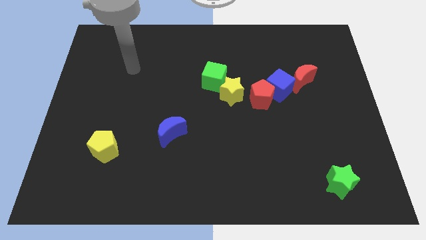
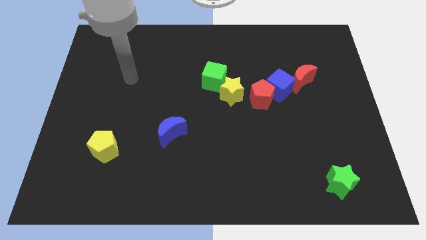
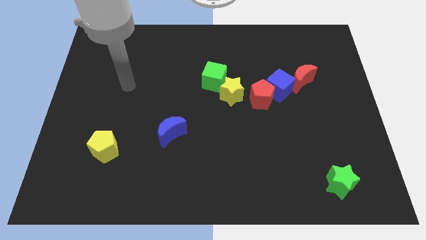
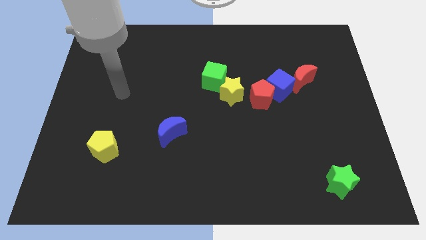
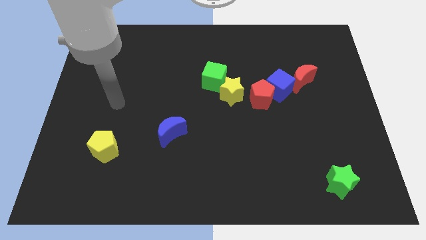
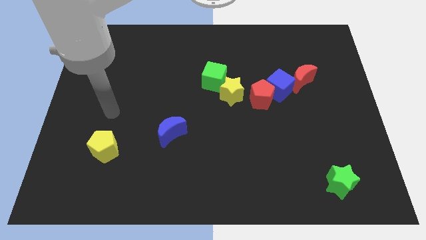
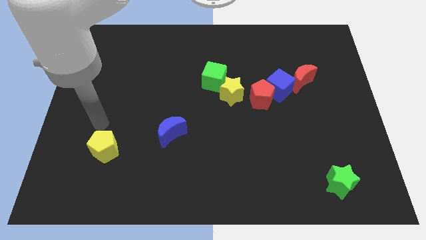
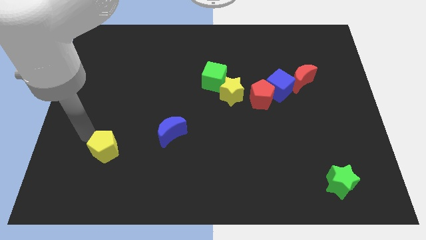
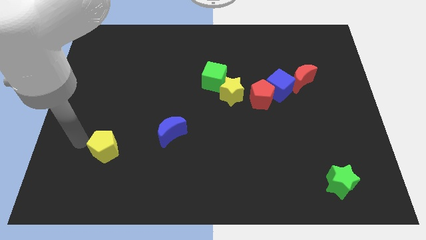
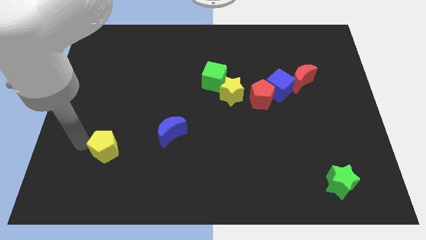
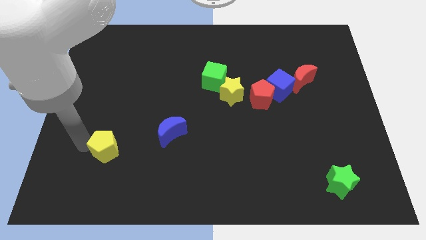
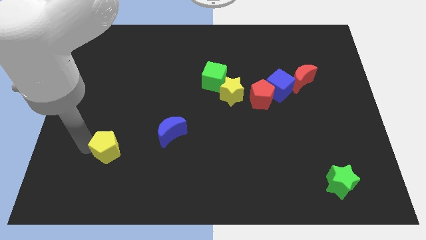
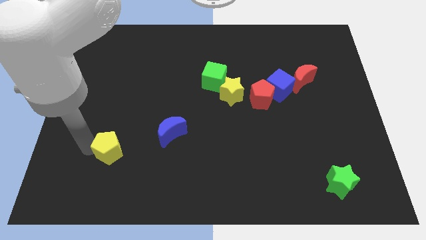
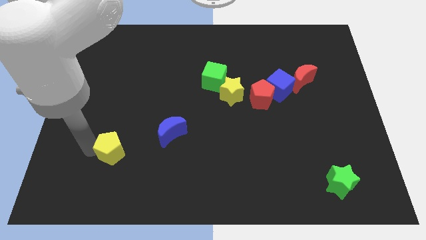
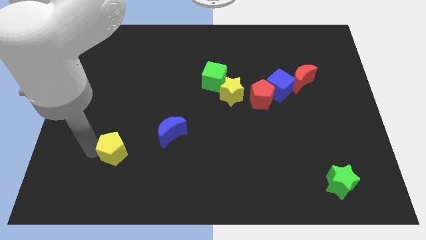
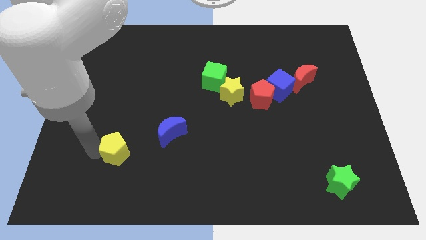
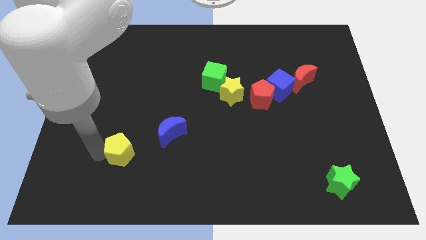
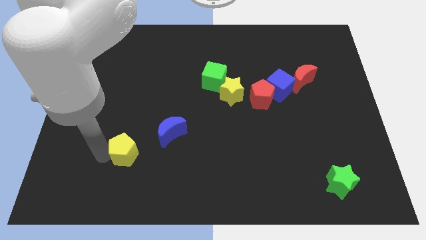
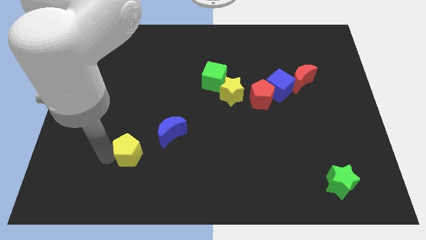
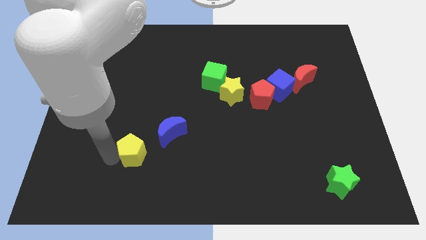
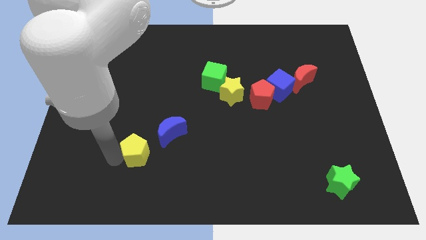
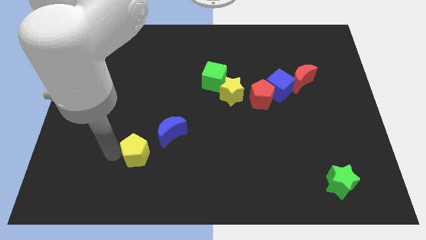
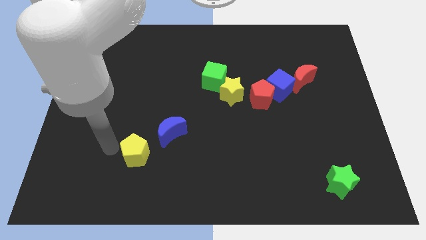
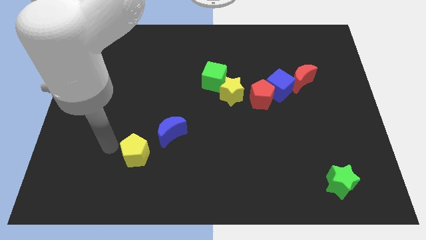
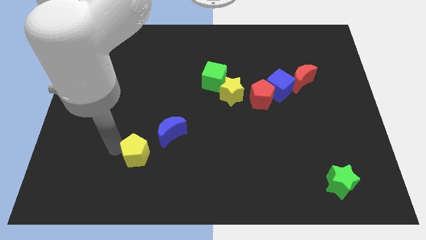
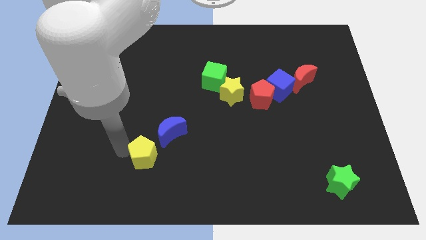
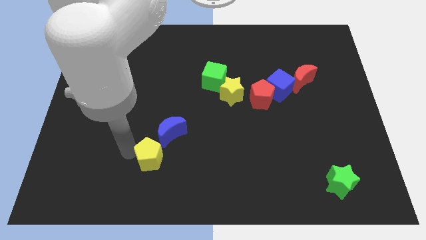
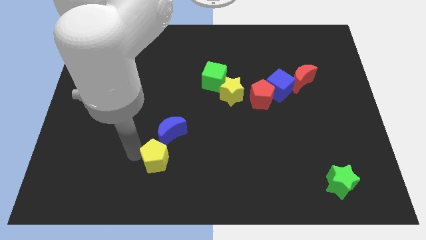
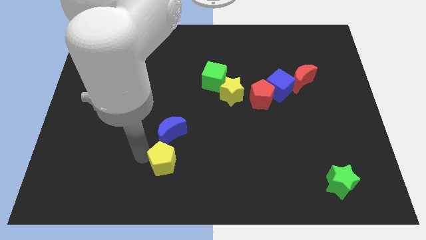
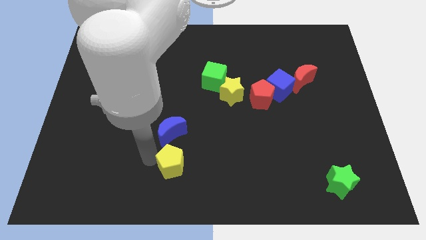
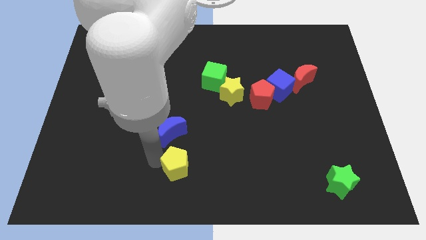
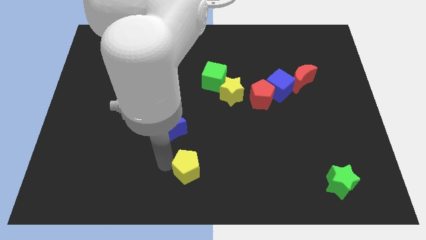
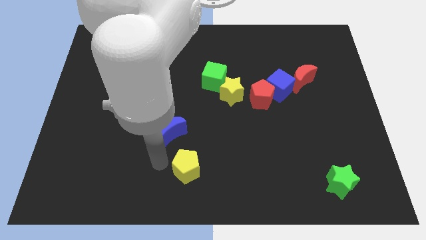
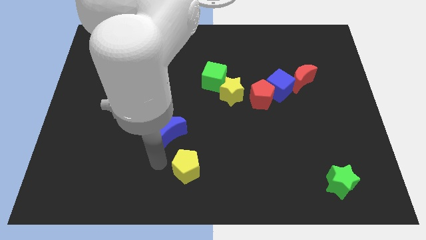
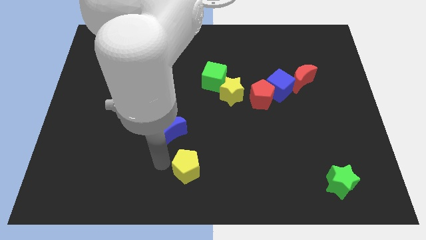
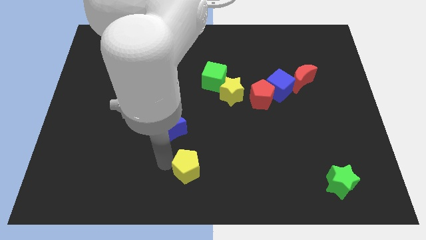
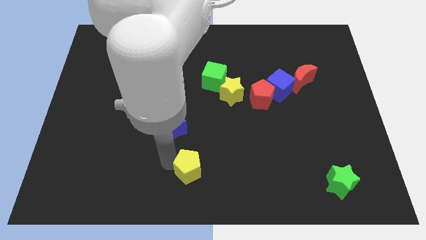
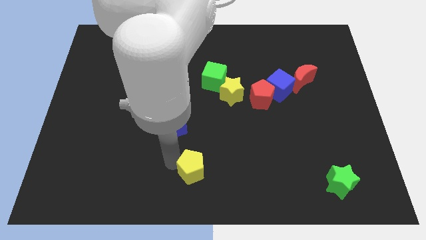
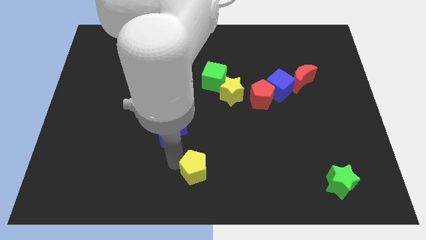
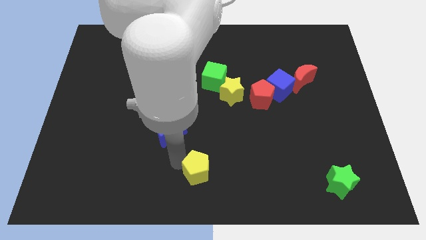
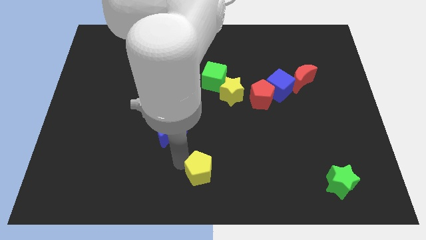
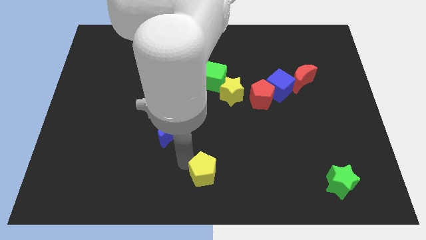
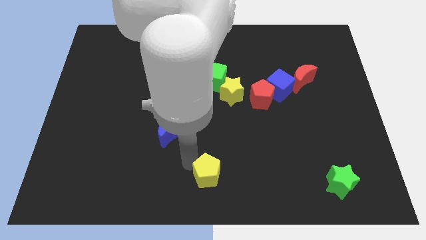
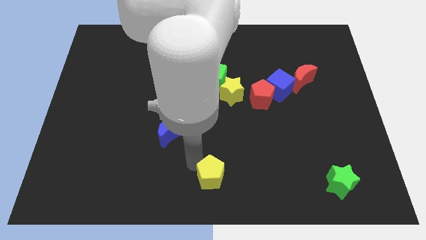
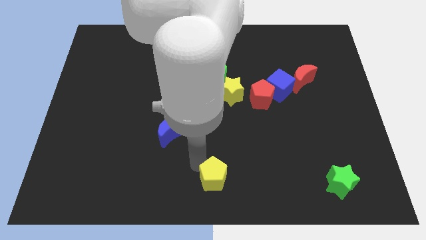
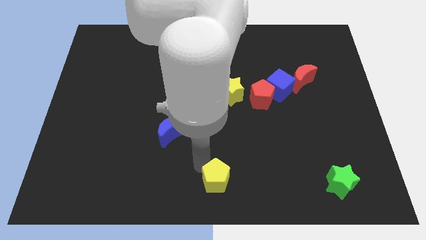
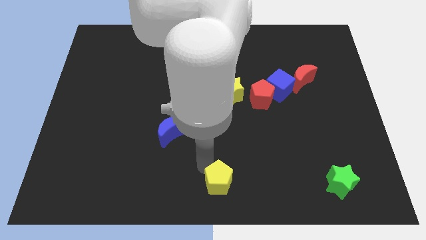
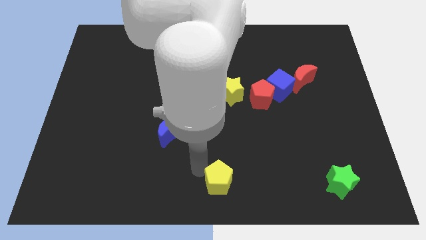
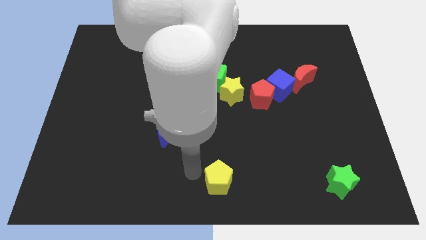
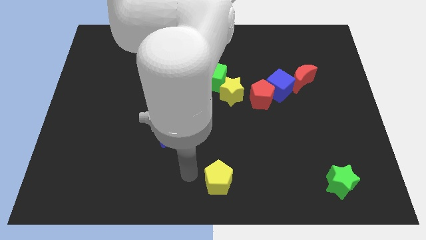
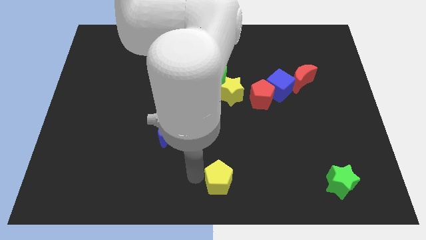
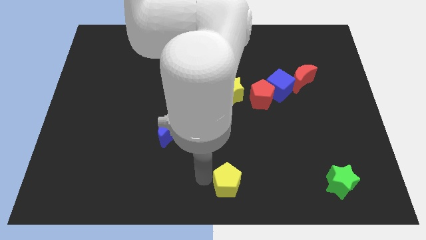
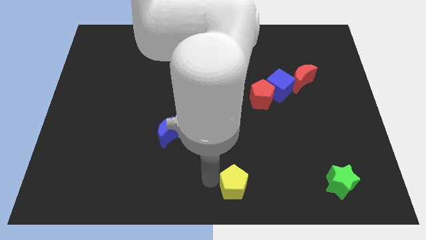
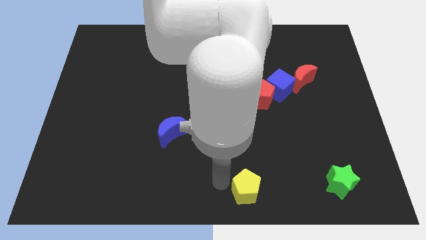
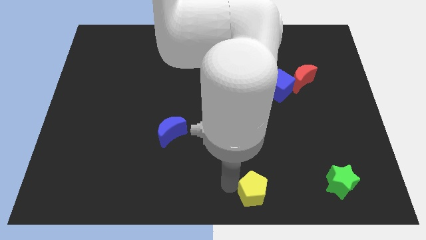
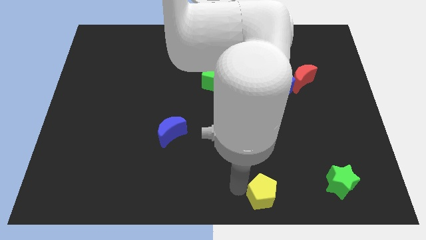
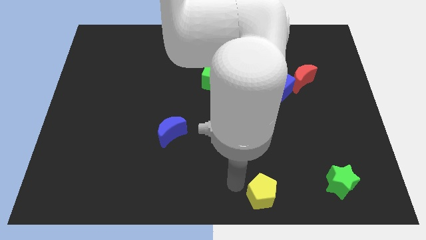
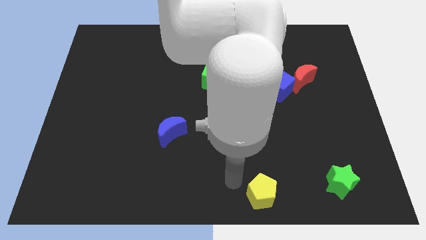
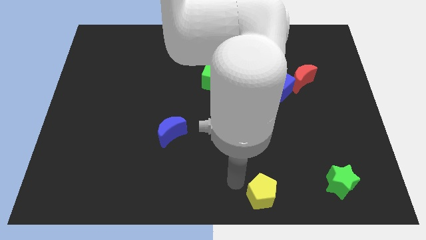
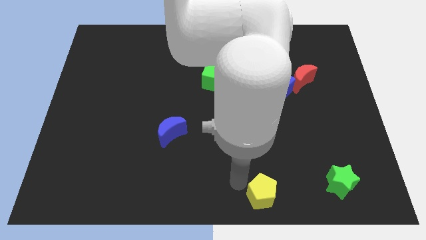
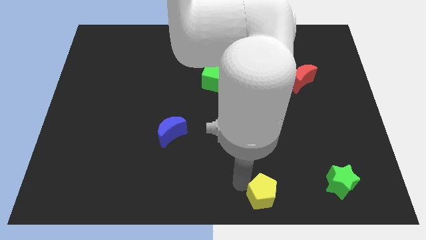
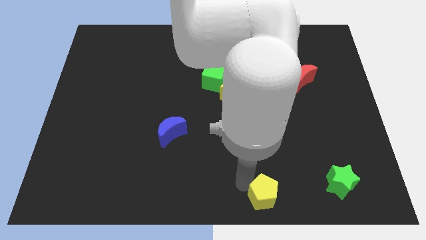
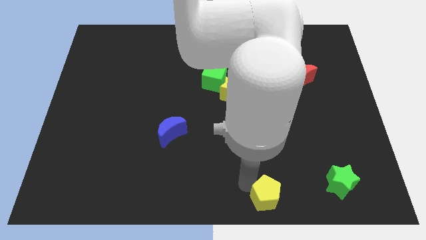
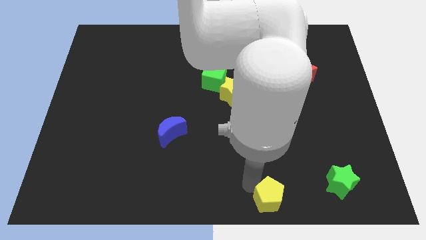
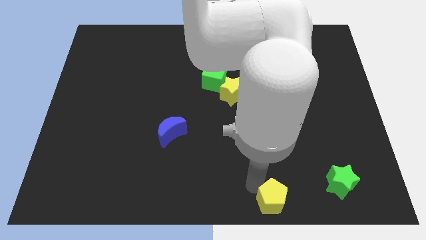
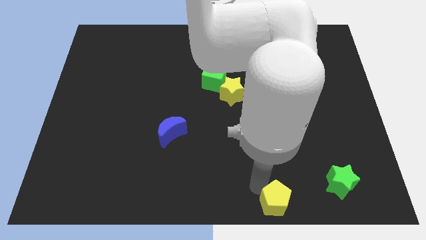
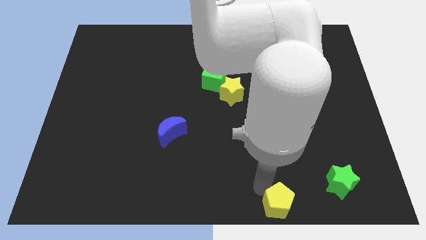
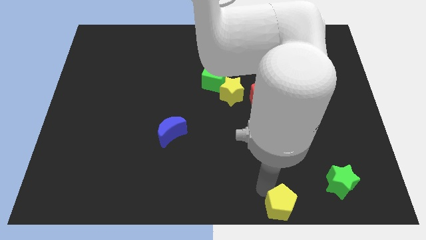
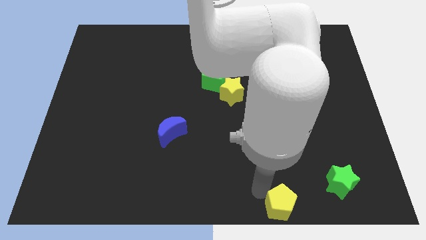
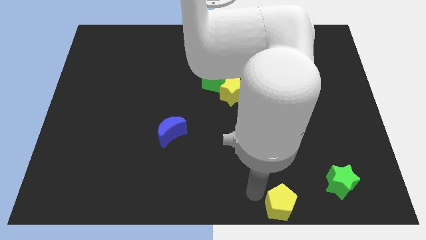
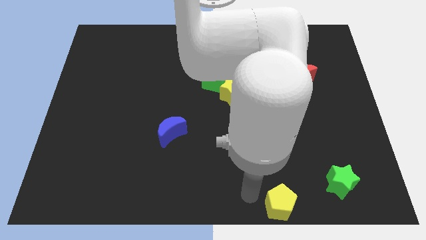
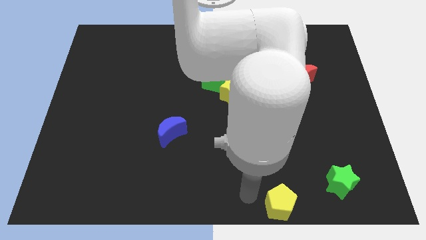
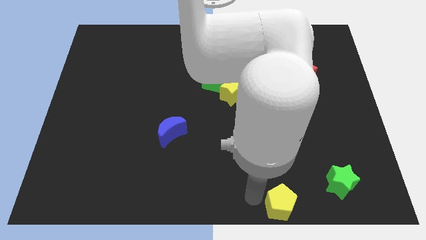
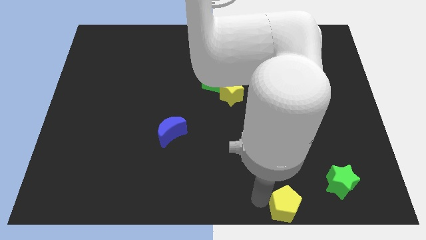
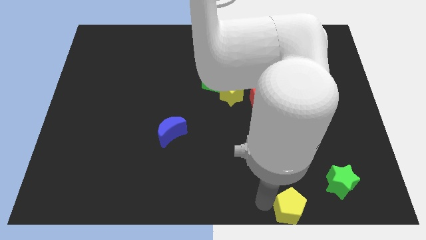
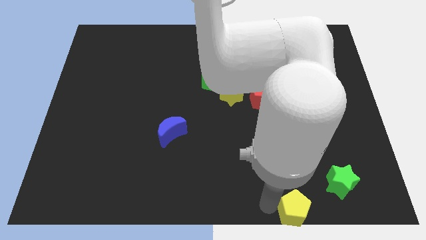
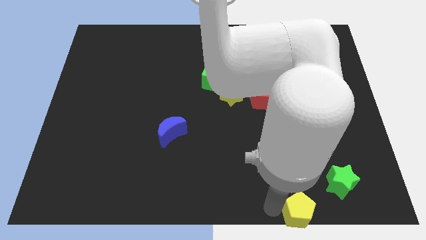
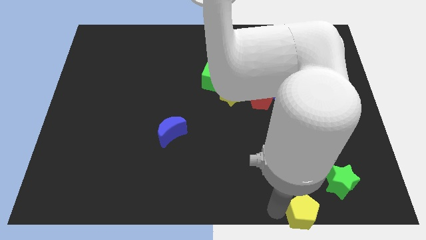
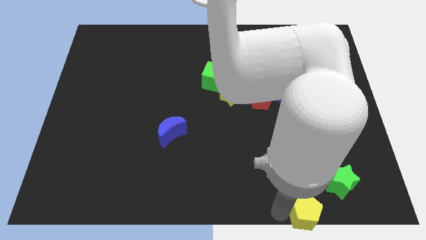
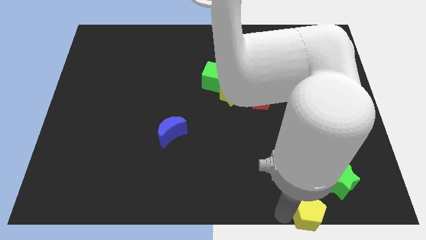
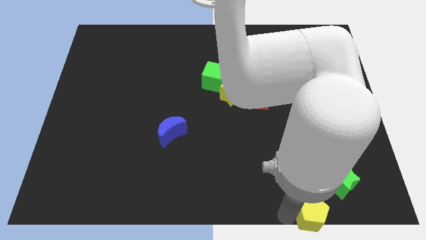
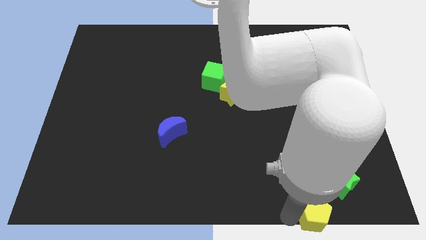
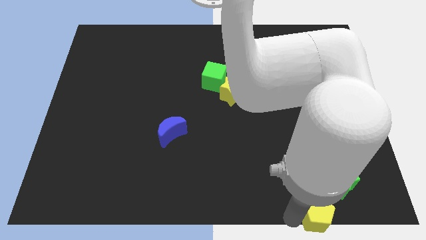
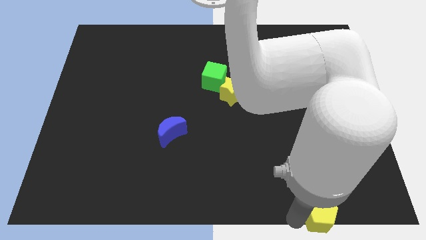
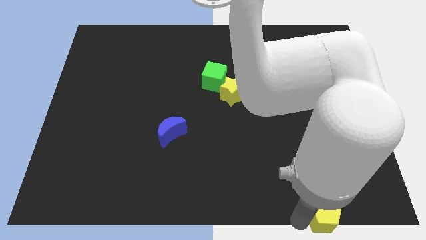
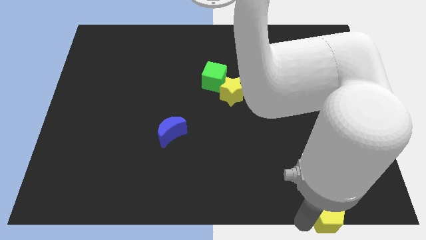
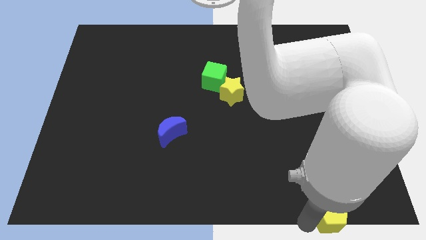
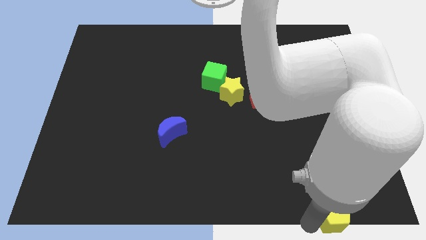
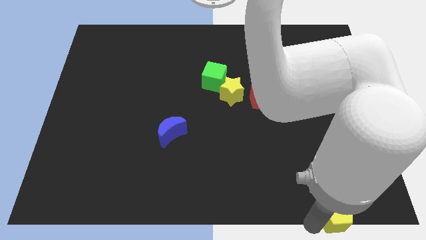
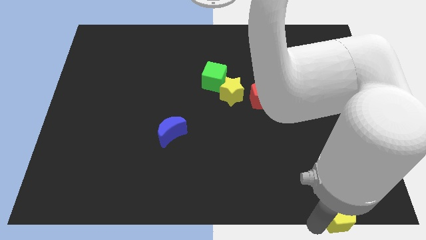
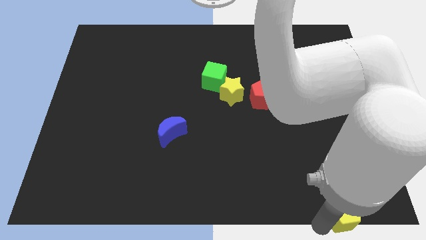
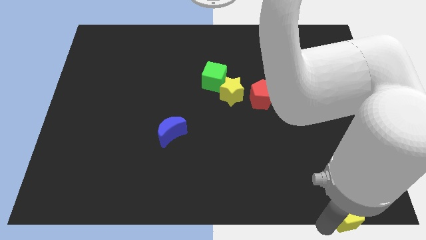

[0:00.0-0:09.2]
slide the yellow pentagon to the bottom right corner
